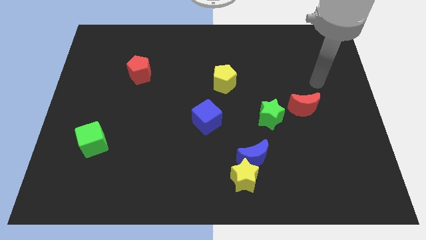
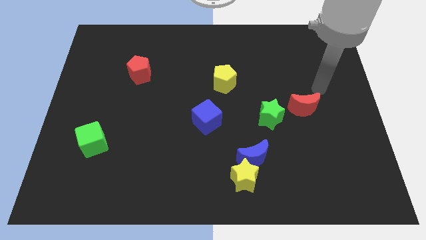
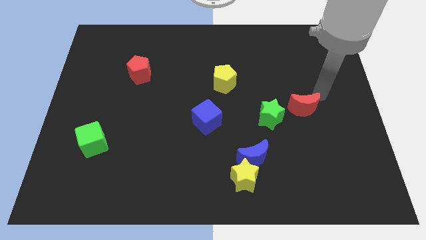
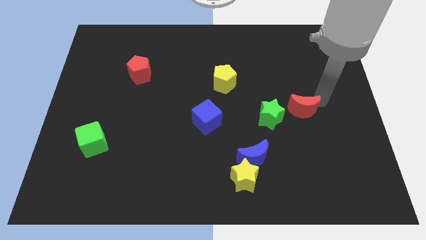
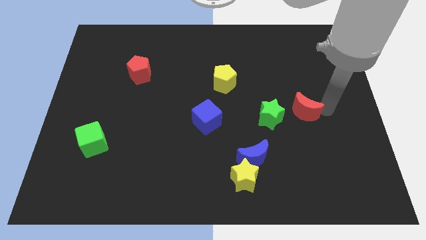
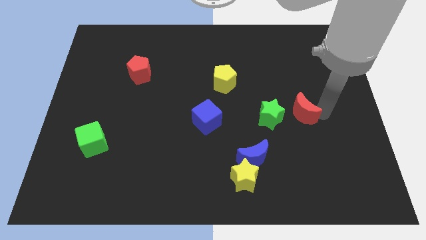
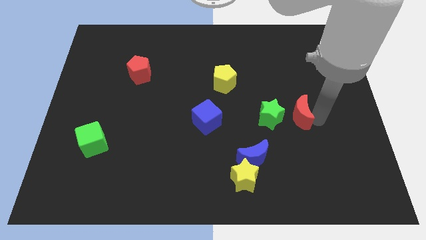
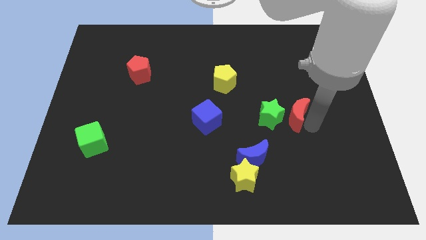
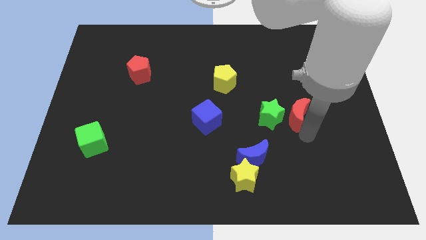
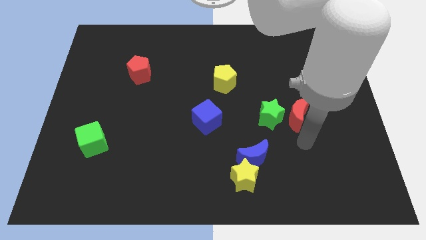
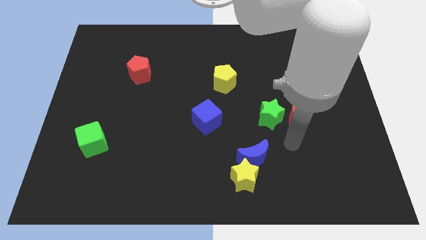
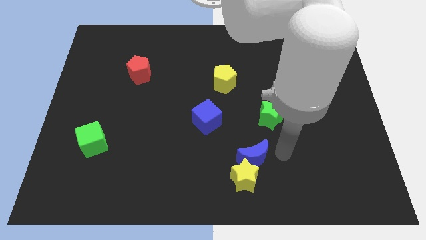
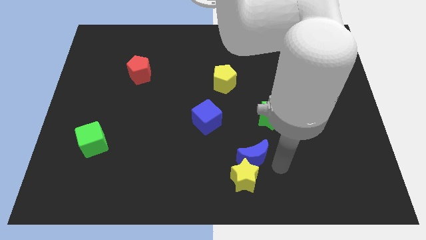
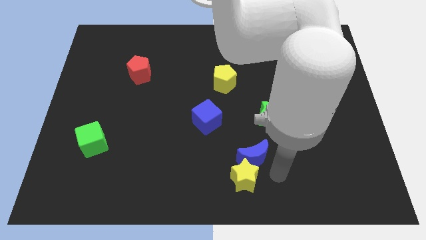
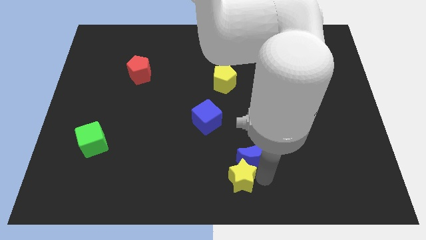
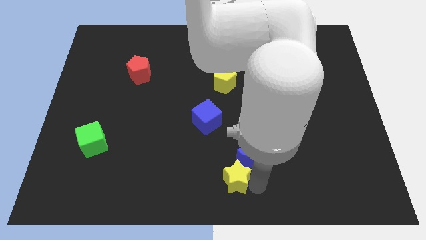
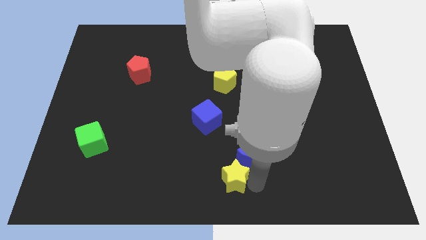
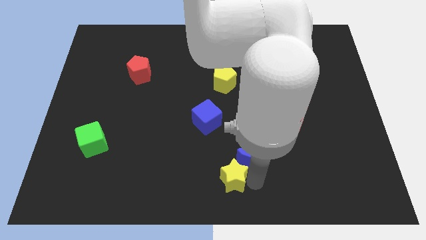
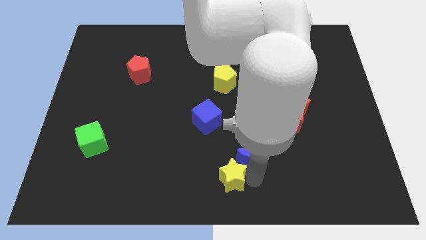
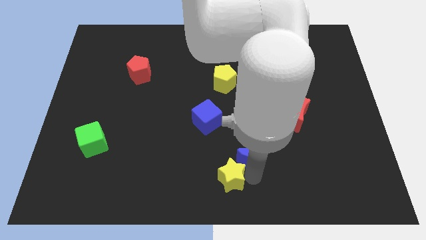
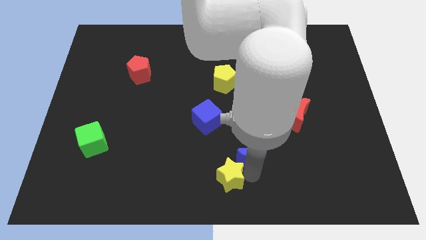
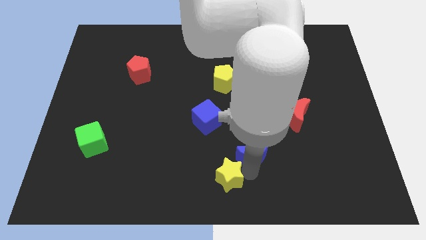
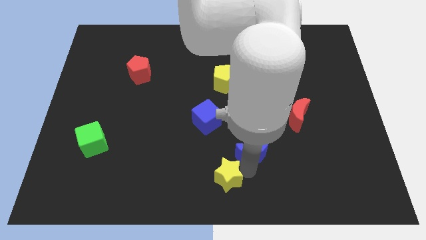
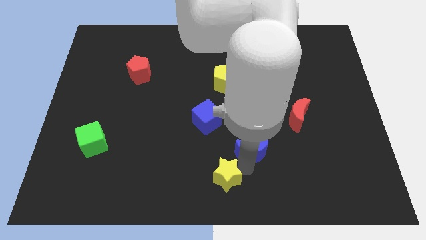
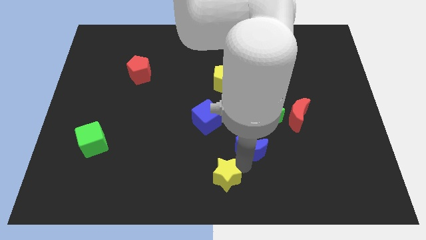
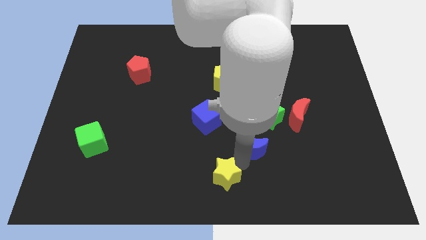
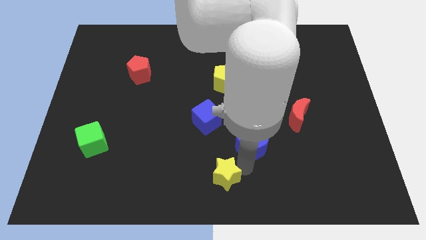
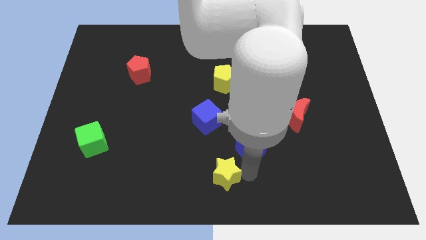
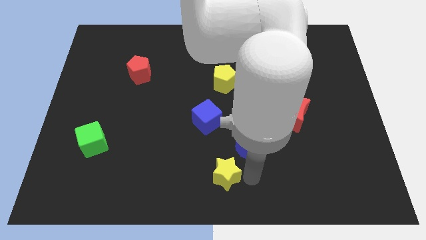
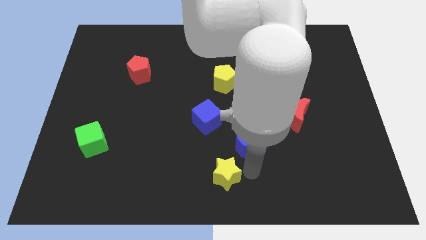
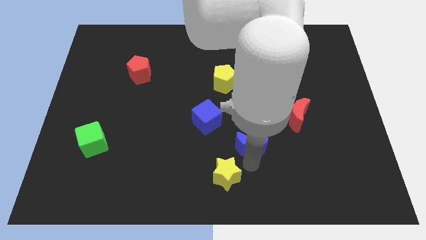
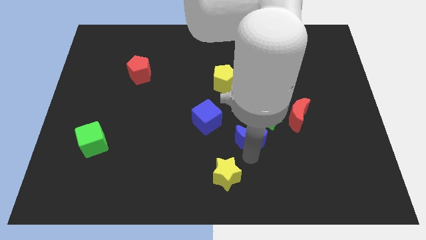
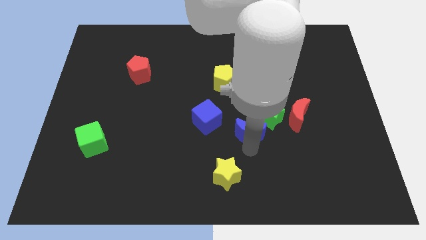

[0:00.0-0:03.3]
separate the blue moon from the yellow star

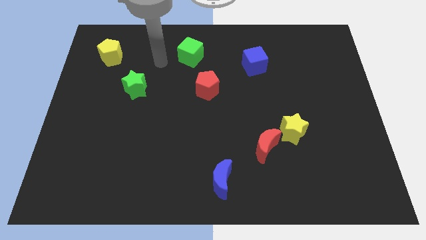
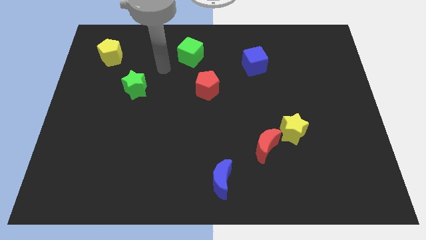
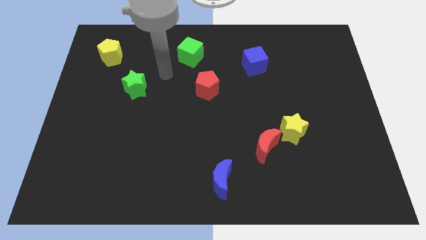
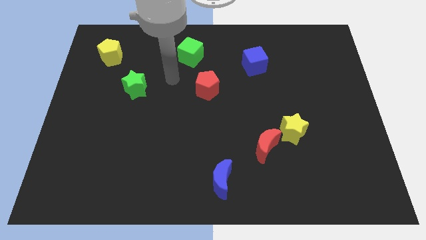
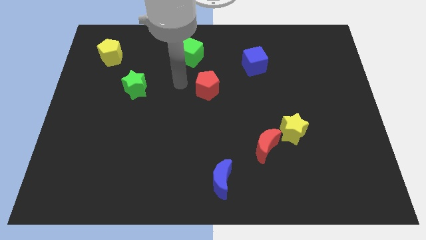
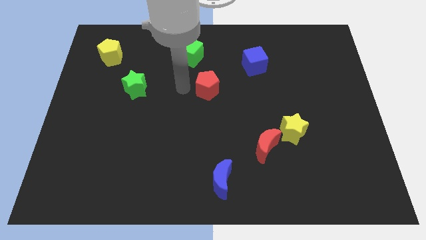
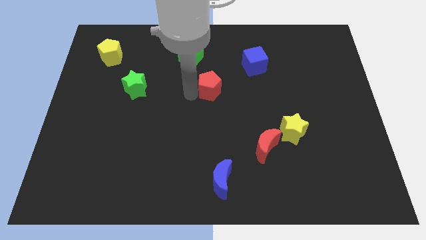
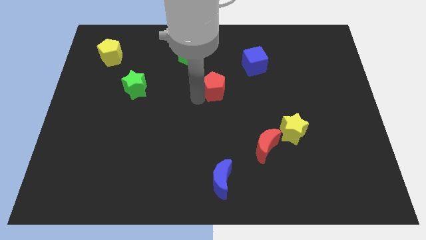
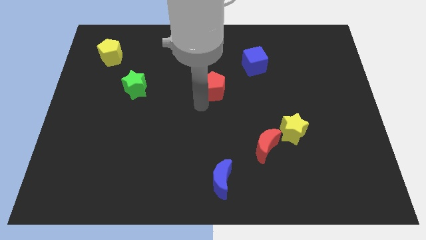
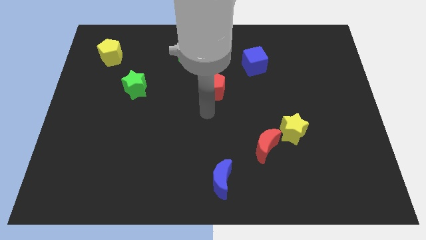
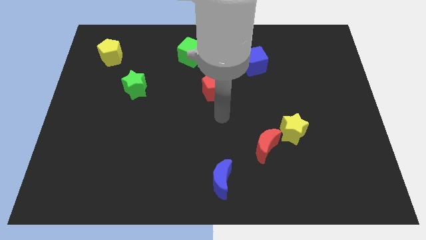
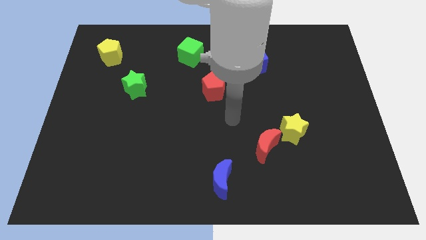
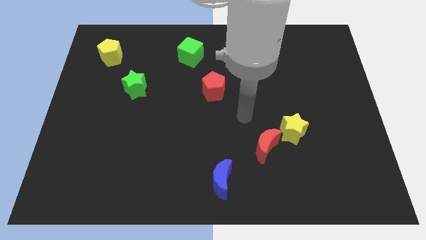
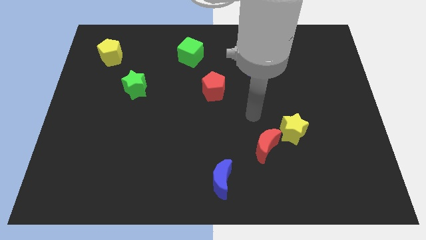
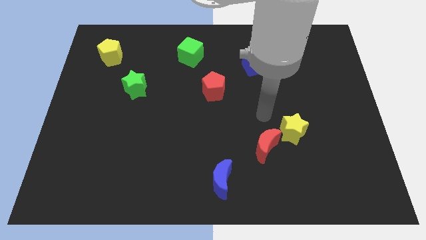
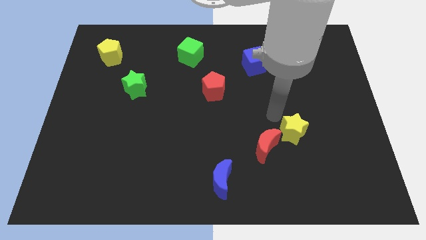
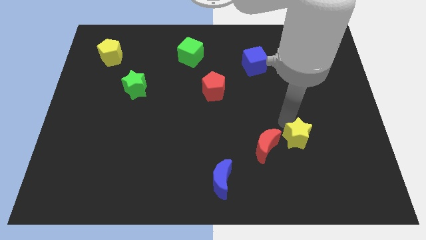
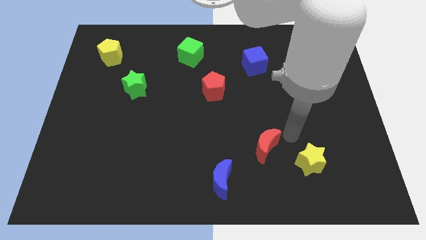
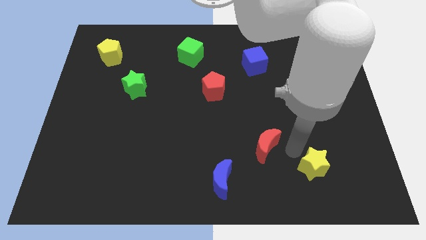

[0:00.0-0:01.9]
move the red moon away from the yellow star

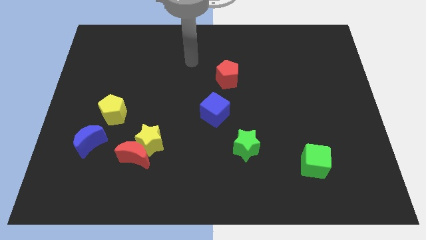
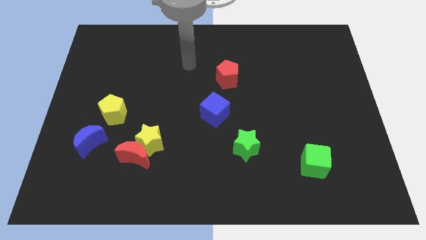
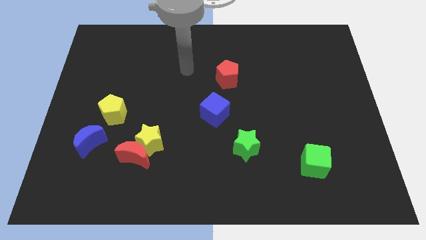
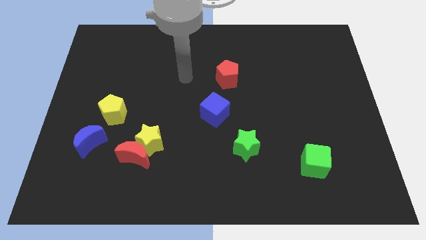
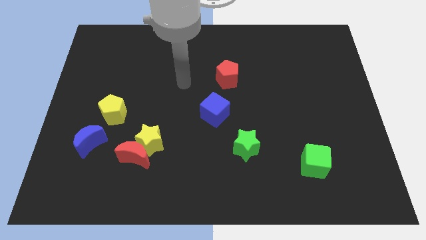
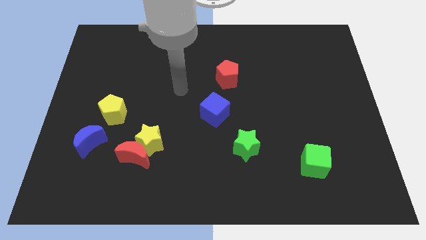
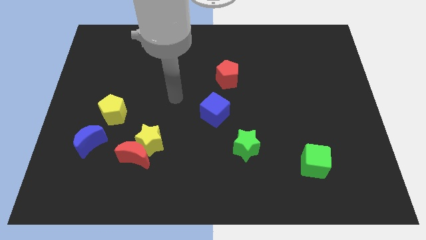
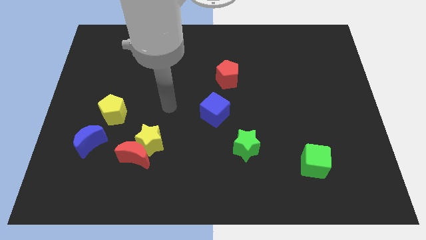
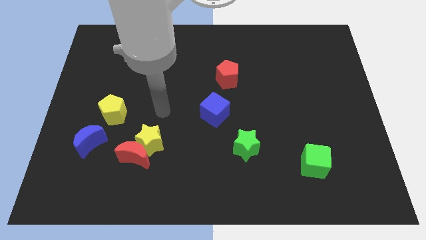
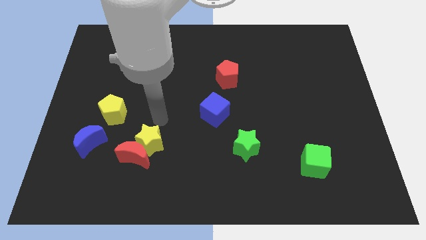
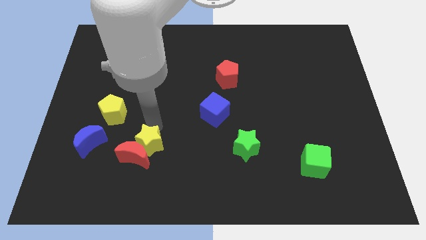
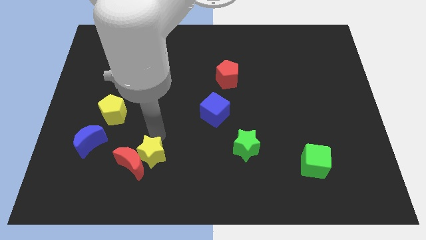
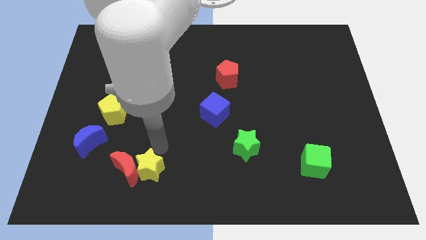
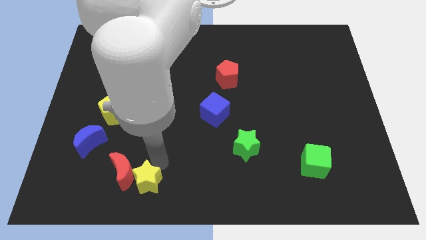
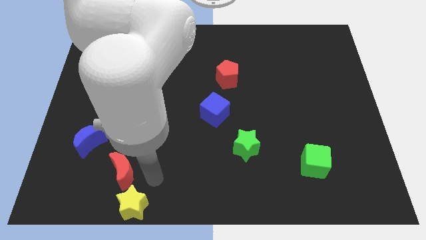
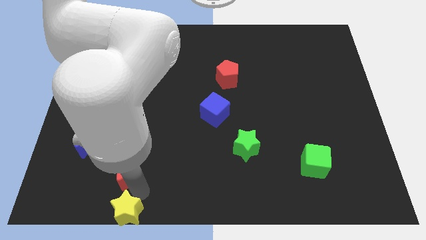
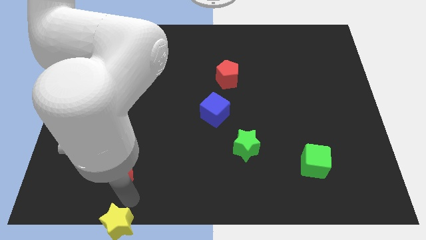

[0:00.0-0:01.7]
separate the red moon from the yellow star

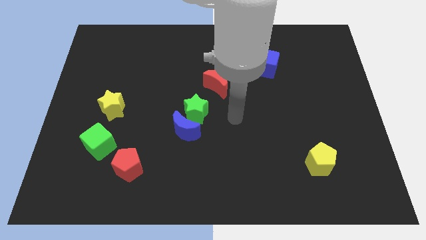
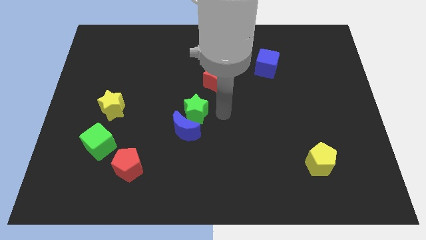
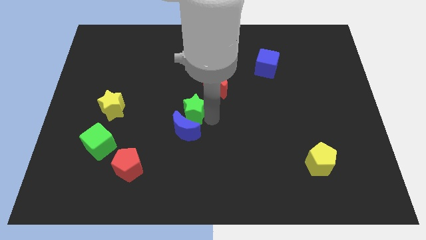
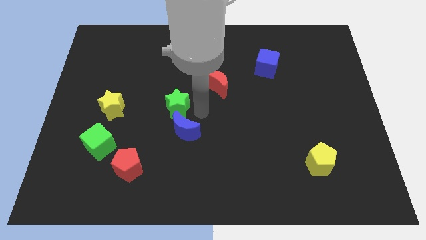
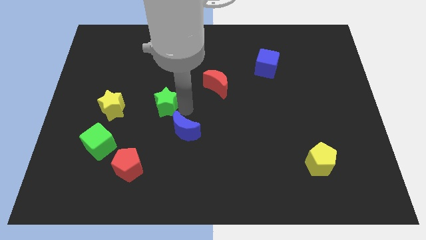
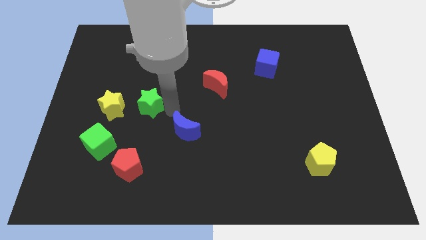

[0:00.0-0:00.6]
move the blue moon away from the green star

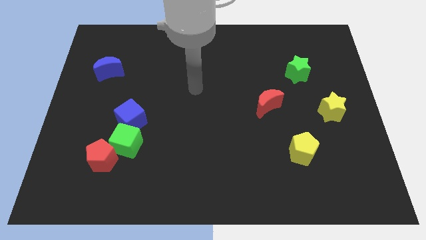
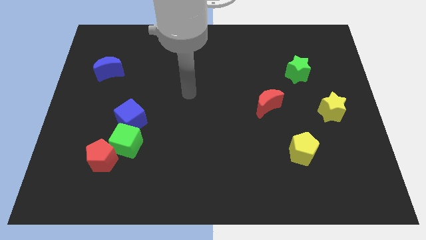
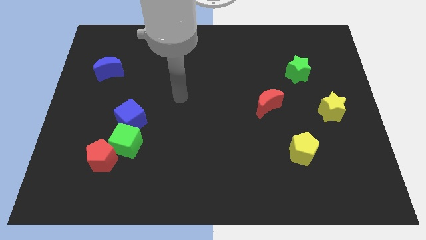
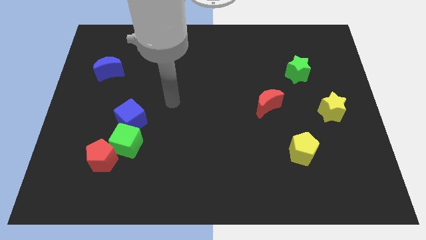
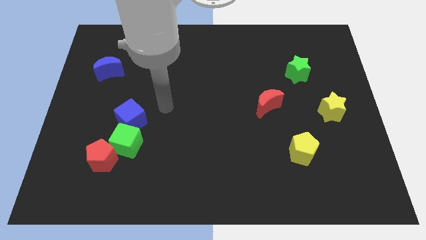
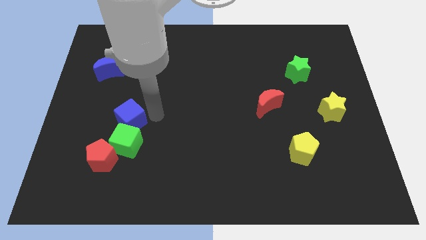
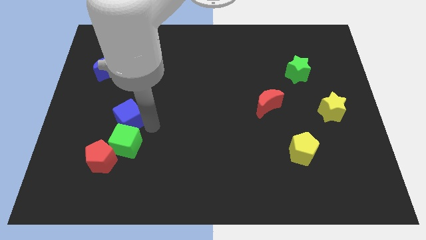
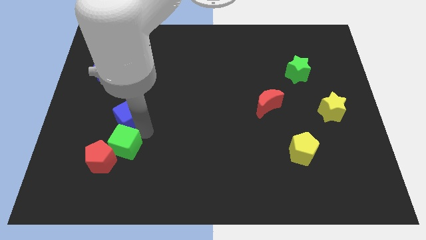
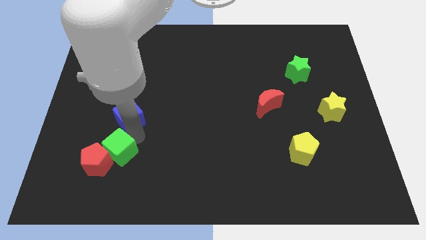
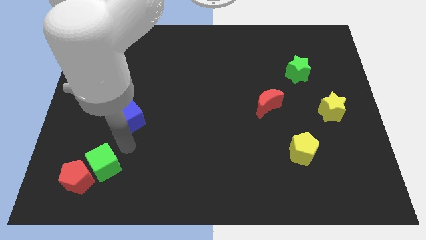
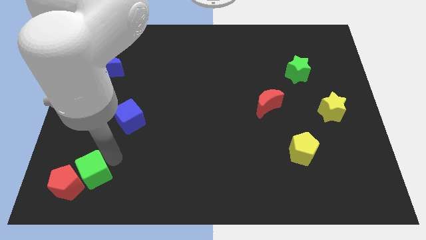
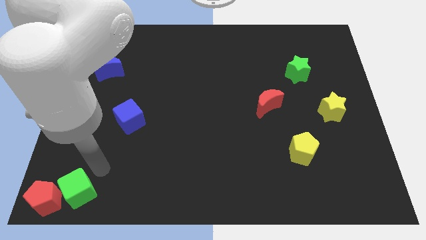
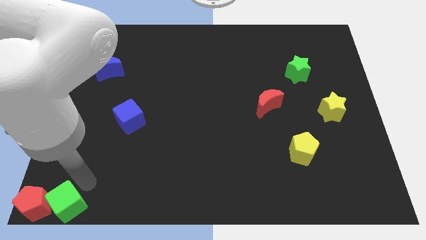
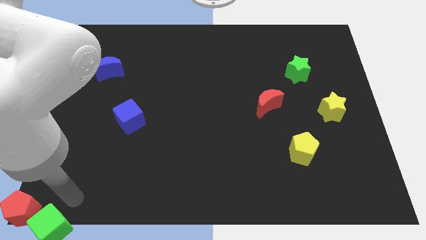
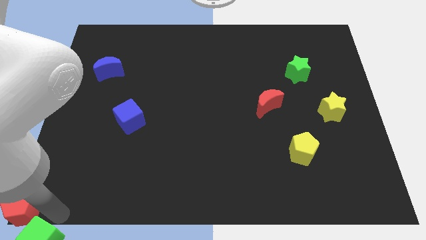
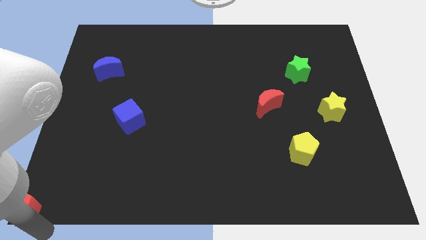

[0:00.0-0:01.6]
move the red pentagon away from the green cube

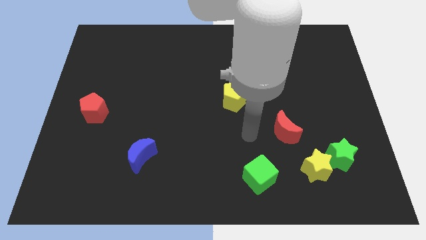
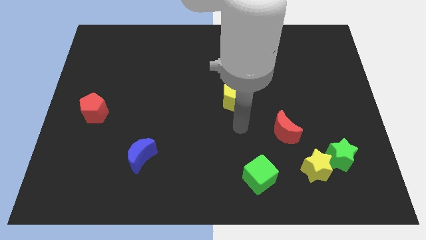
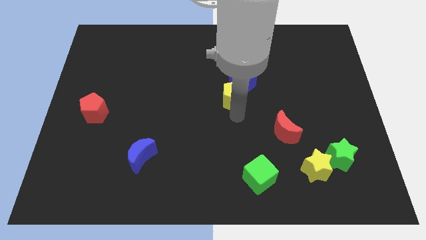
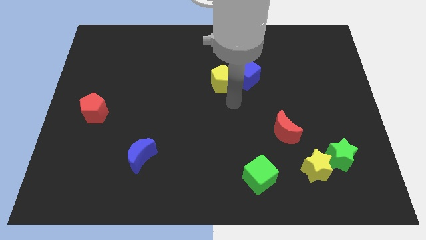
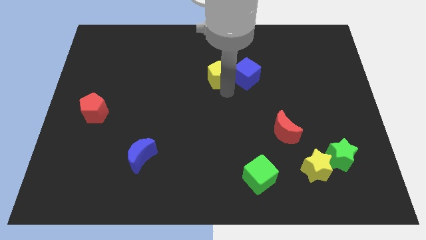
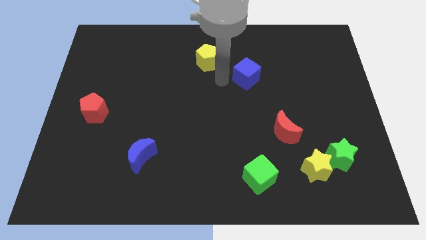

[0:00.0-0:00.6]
pull the blue cube apart from the yellow pentagon
